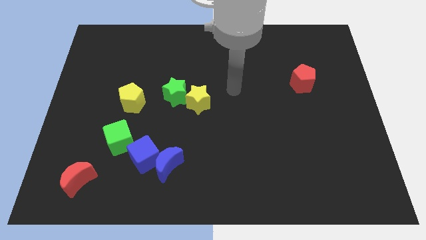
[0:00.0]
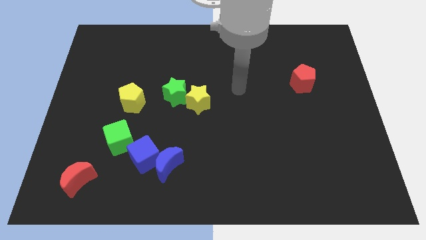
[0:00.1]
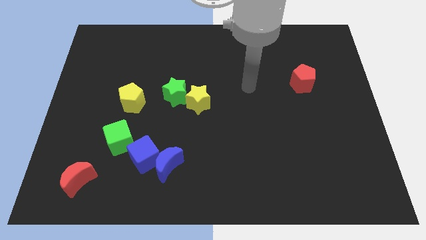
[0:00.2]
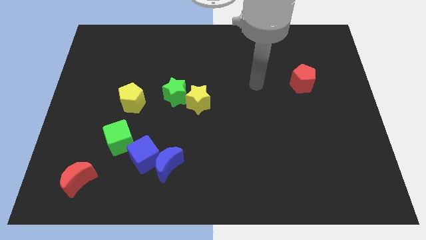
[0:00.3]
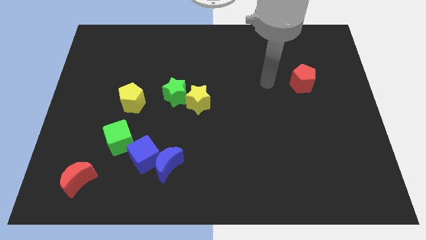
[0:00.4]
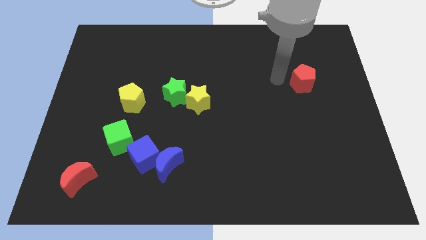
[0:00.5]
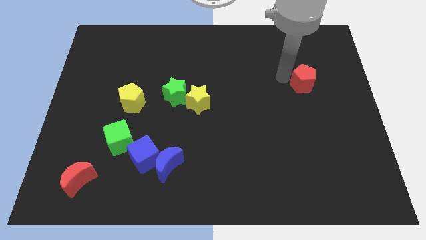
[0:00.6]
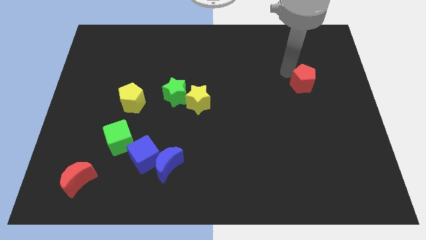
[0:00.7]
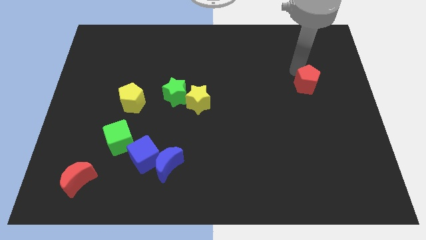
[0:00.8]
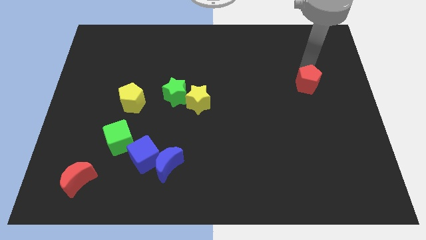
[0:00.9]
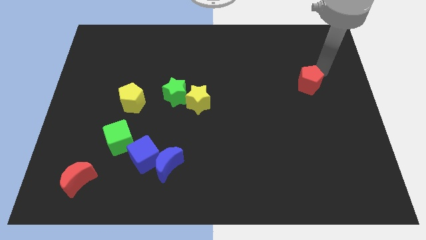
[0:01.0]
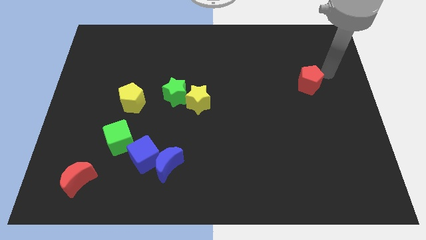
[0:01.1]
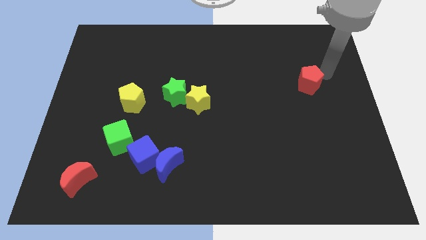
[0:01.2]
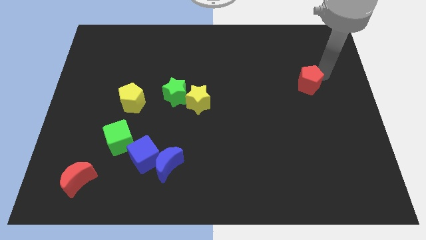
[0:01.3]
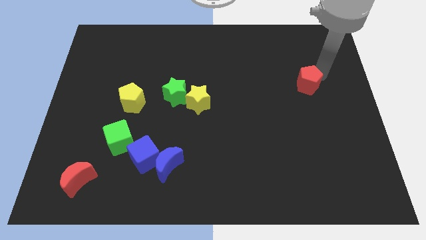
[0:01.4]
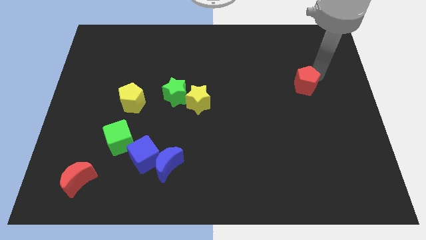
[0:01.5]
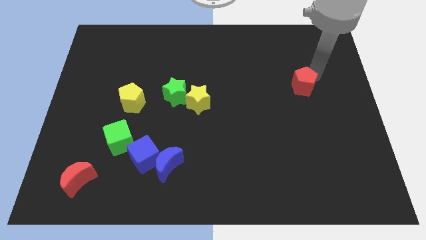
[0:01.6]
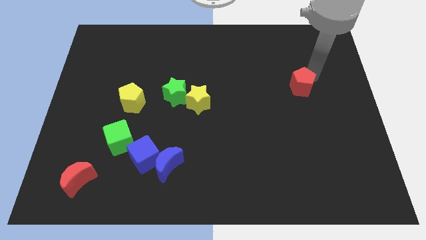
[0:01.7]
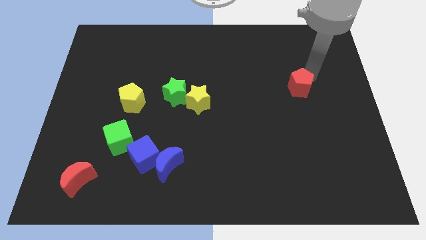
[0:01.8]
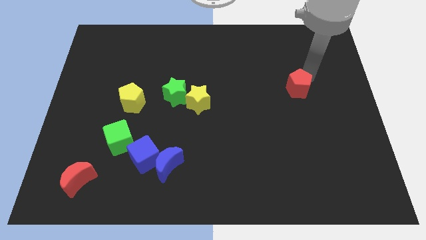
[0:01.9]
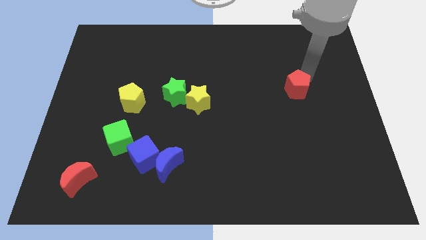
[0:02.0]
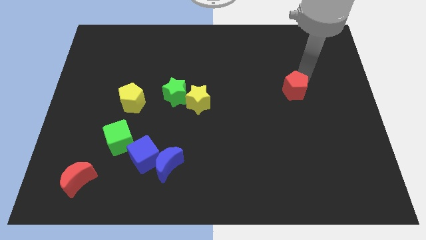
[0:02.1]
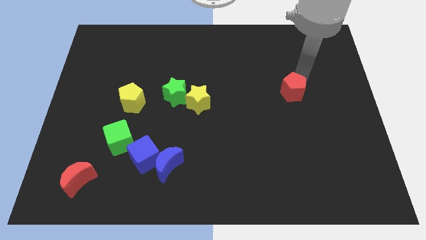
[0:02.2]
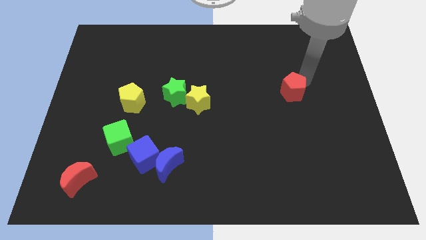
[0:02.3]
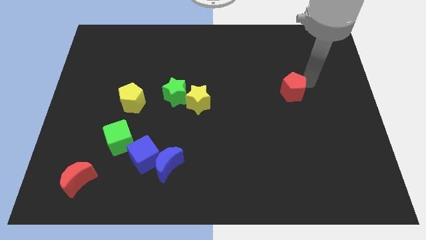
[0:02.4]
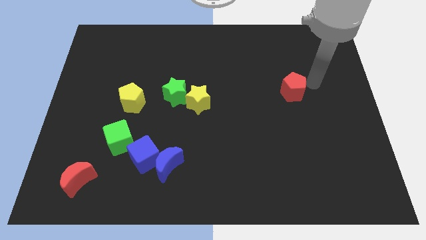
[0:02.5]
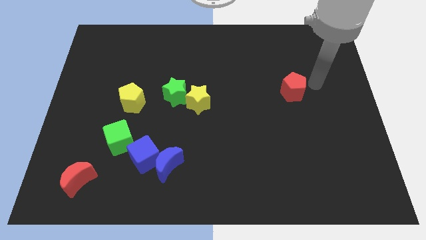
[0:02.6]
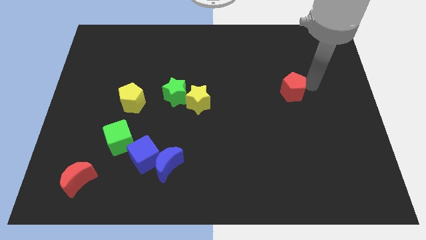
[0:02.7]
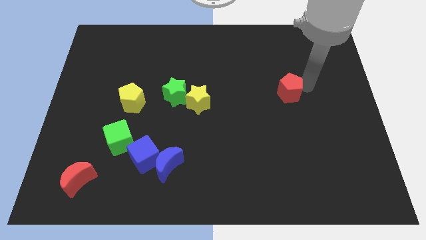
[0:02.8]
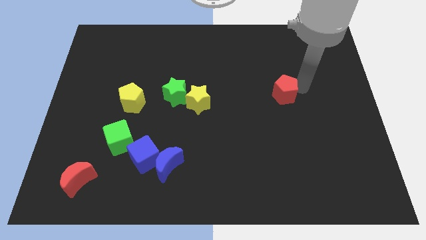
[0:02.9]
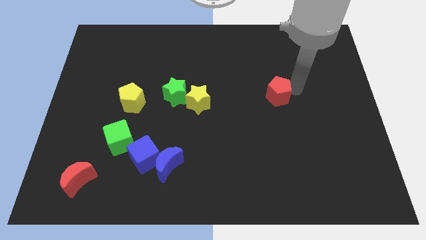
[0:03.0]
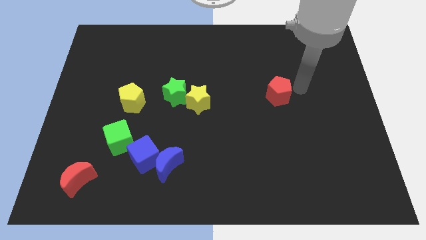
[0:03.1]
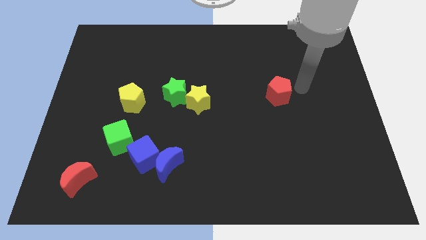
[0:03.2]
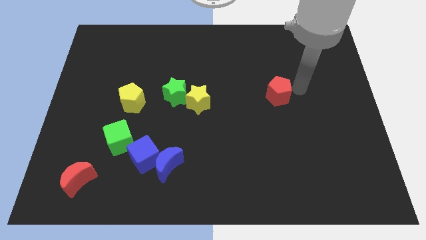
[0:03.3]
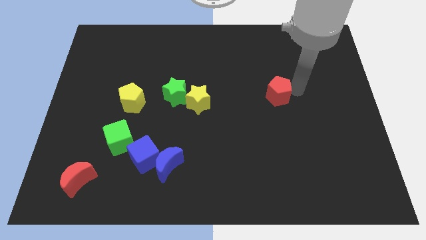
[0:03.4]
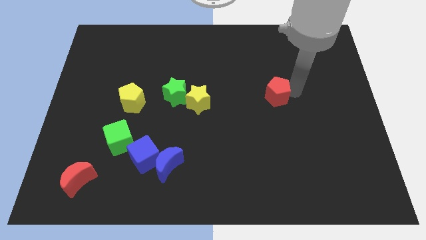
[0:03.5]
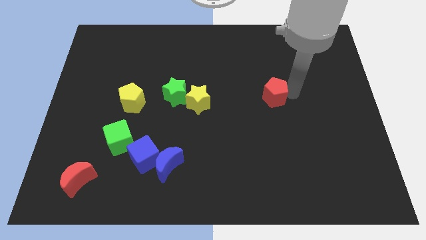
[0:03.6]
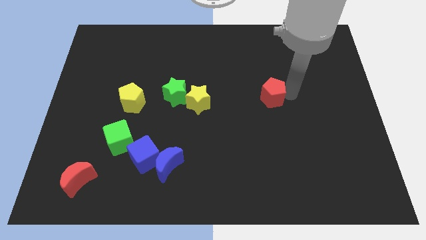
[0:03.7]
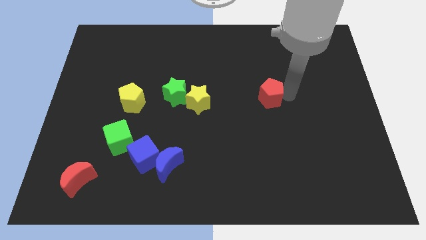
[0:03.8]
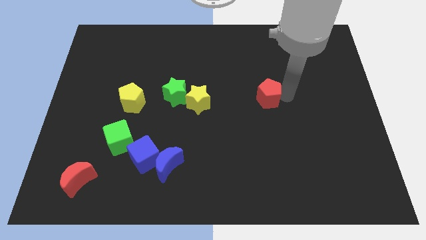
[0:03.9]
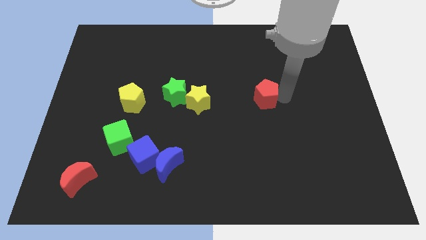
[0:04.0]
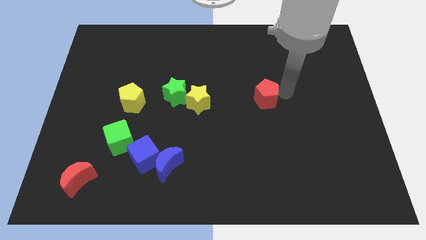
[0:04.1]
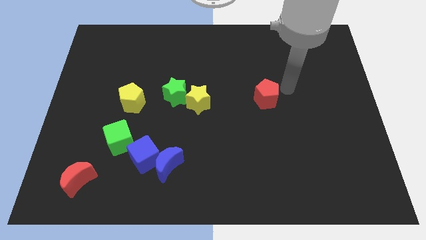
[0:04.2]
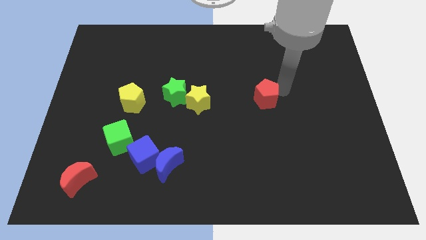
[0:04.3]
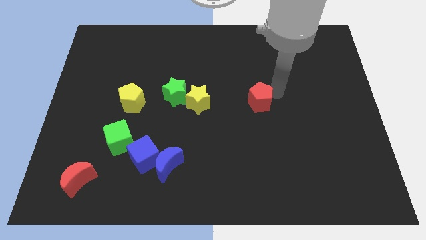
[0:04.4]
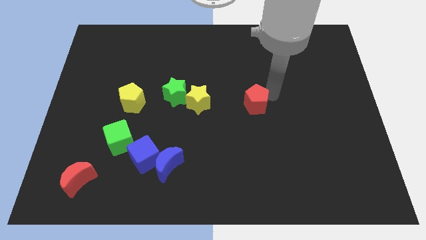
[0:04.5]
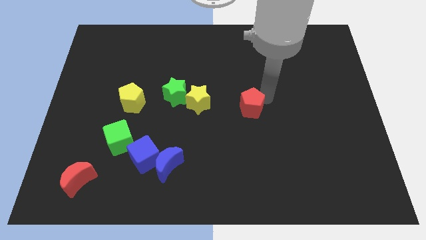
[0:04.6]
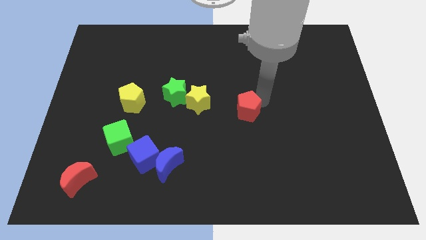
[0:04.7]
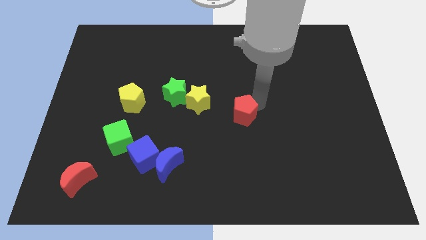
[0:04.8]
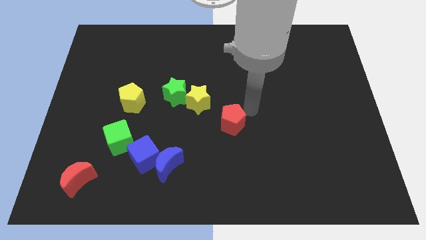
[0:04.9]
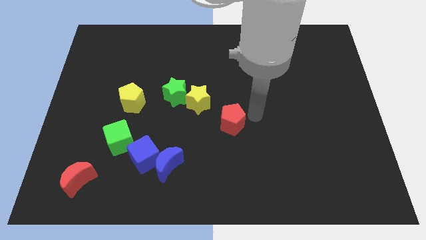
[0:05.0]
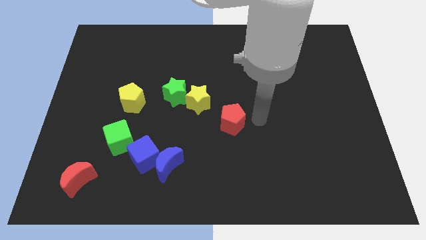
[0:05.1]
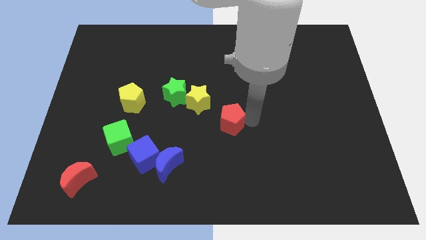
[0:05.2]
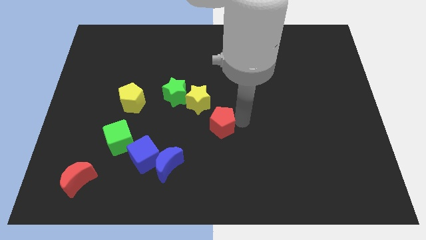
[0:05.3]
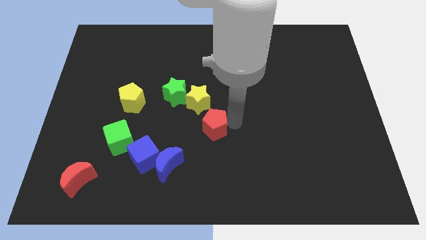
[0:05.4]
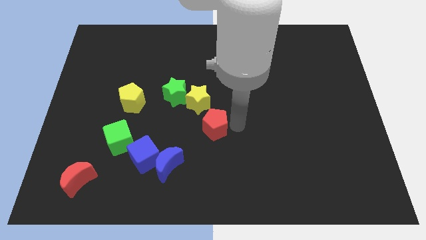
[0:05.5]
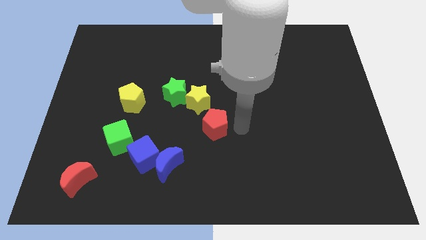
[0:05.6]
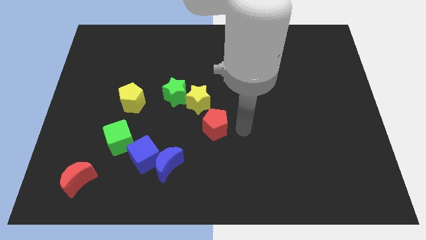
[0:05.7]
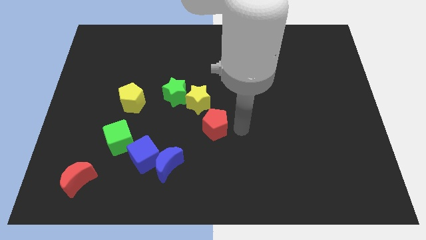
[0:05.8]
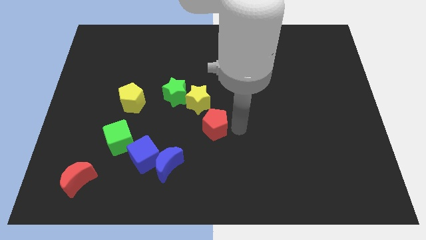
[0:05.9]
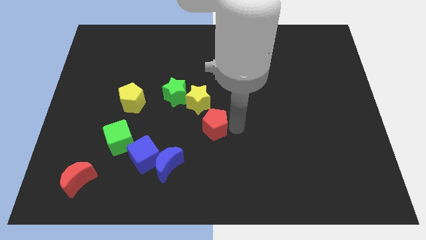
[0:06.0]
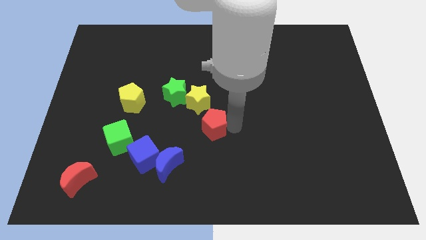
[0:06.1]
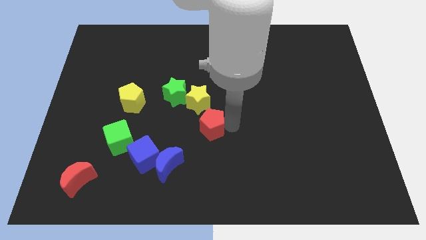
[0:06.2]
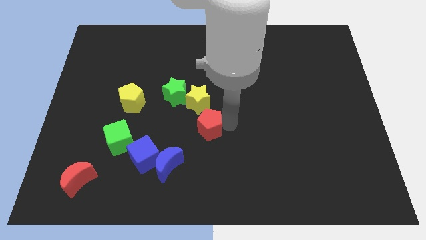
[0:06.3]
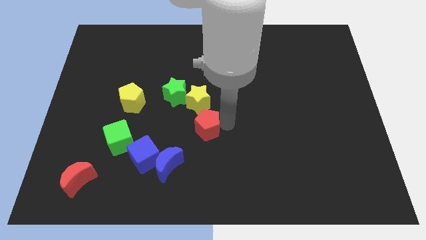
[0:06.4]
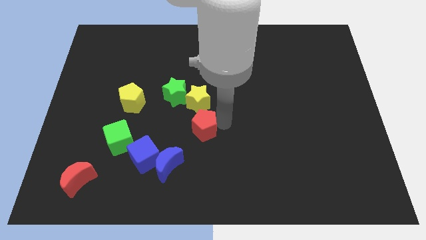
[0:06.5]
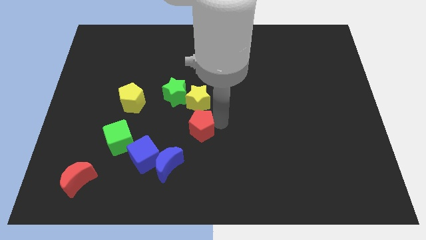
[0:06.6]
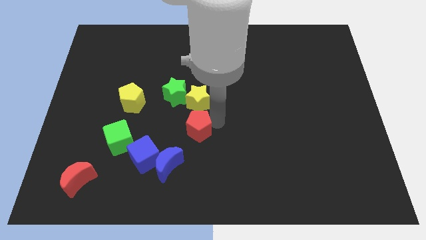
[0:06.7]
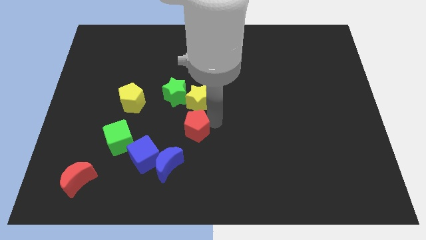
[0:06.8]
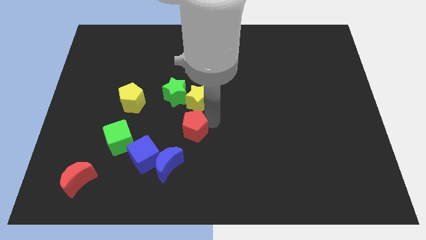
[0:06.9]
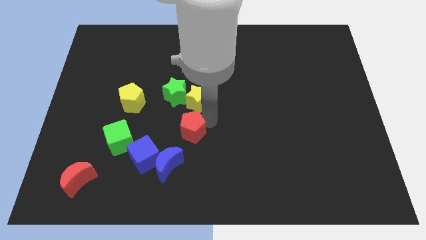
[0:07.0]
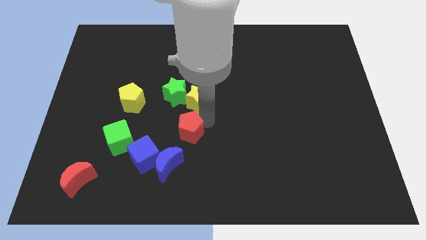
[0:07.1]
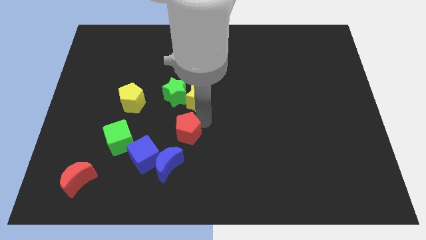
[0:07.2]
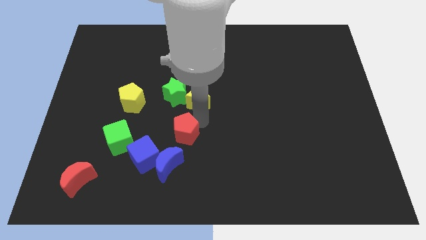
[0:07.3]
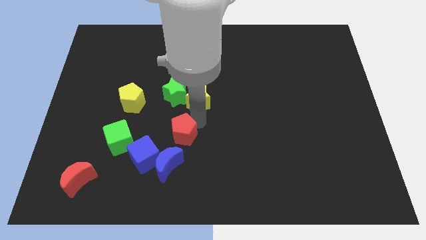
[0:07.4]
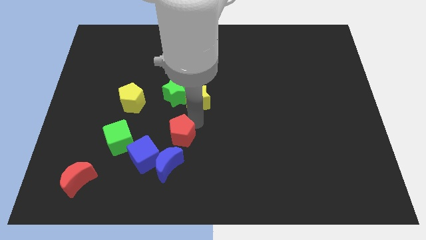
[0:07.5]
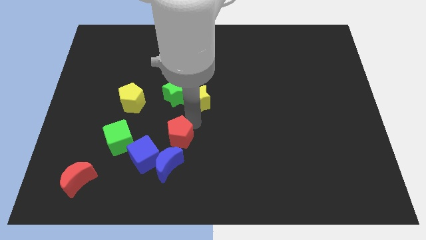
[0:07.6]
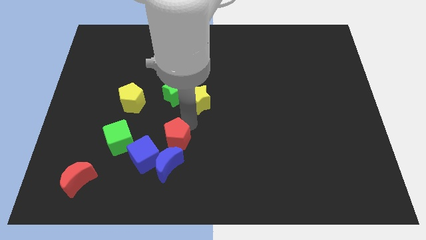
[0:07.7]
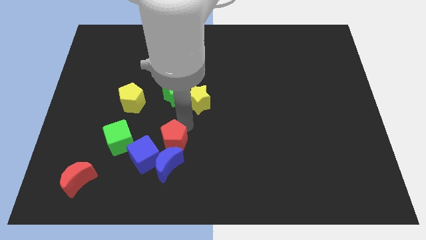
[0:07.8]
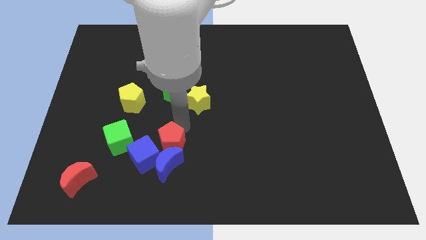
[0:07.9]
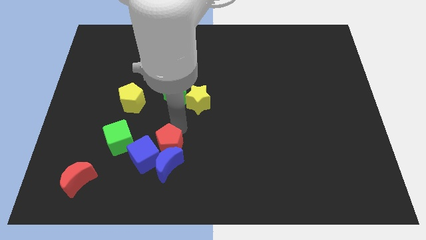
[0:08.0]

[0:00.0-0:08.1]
put the red pentagon to the blue cube

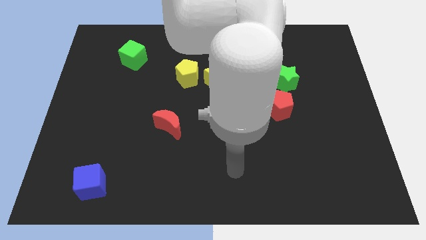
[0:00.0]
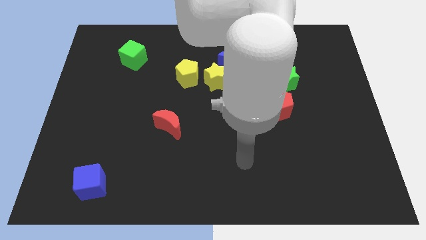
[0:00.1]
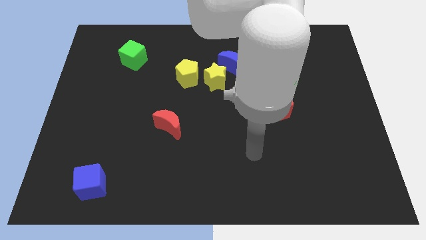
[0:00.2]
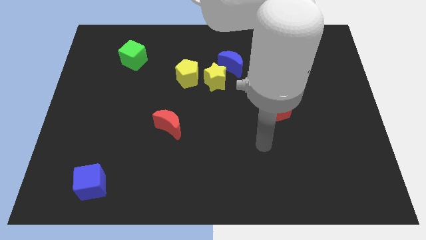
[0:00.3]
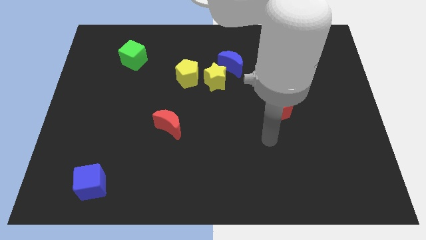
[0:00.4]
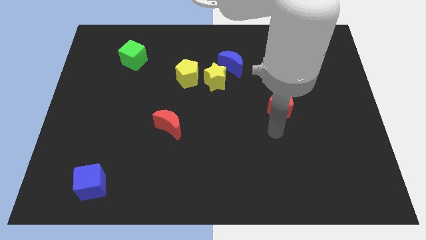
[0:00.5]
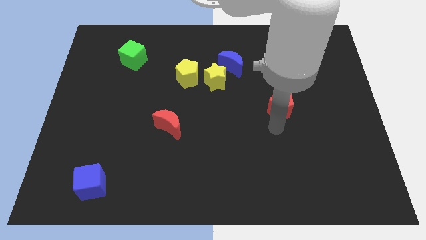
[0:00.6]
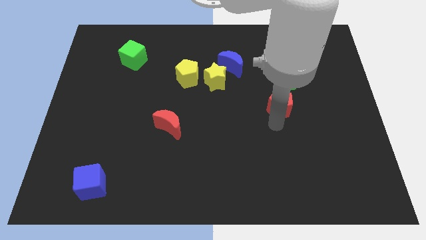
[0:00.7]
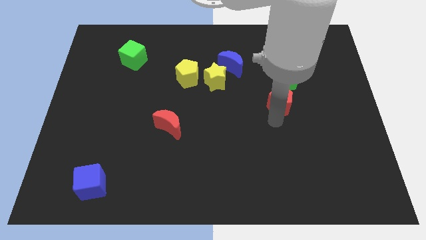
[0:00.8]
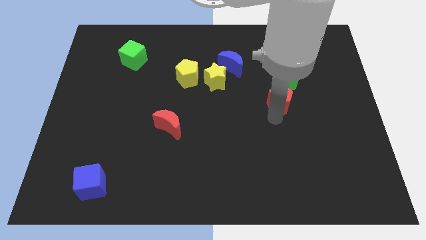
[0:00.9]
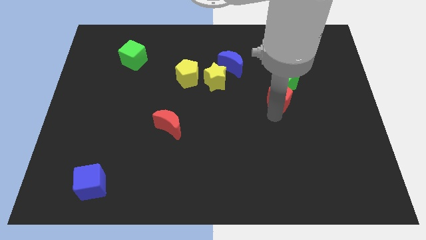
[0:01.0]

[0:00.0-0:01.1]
slide the red pentagon next to the green star
